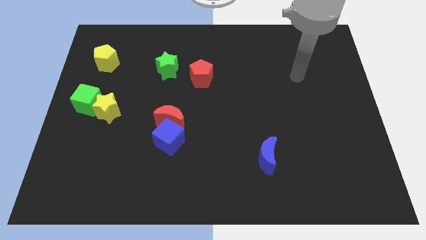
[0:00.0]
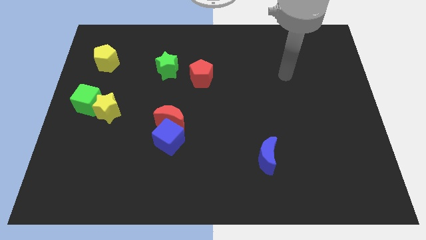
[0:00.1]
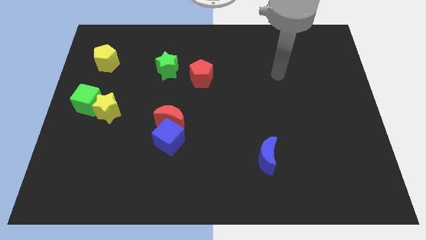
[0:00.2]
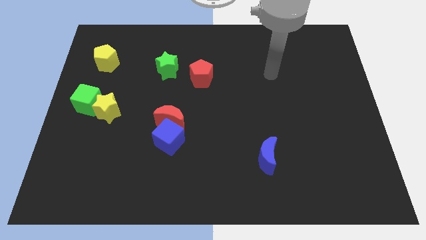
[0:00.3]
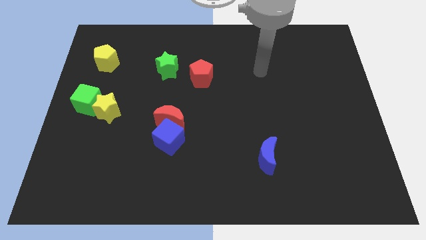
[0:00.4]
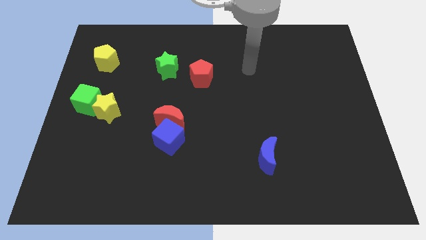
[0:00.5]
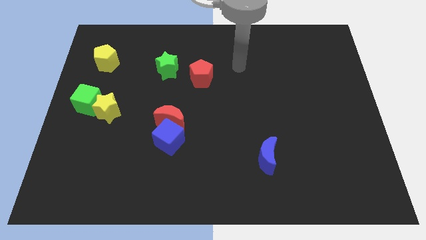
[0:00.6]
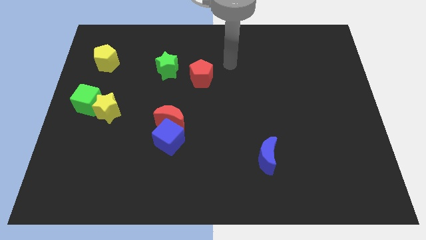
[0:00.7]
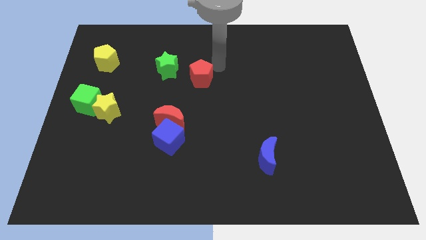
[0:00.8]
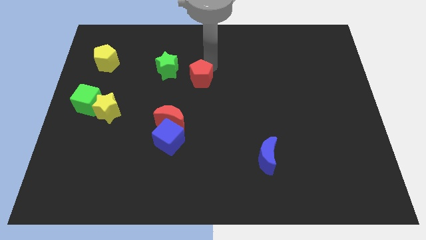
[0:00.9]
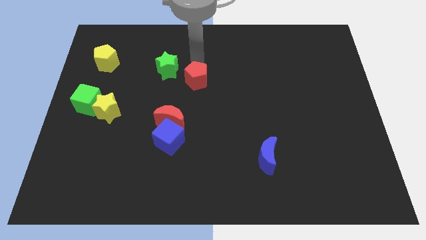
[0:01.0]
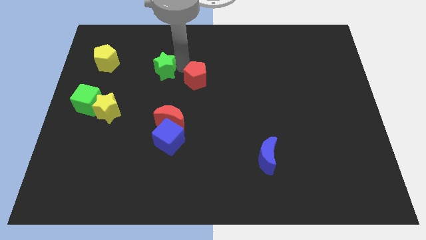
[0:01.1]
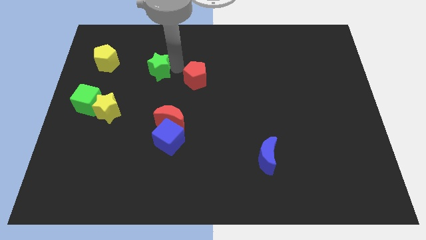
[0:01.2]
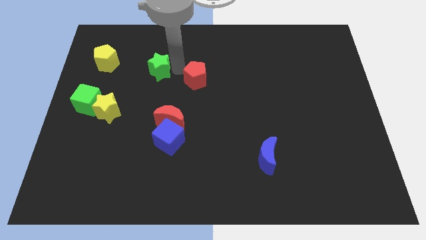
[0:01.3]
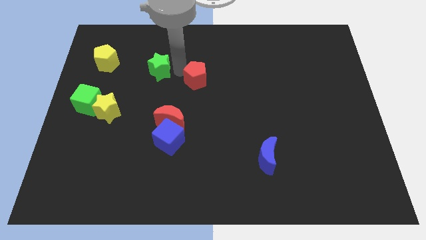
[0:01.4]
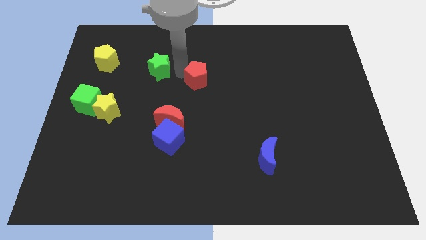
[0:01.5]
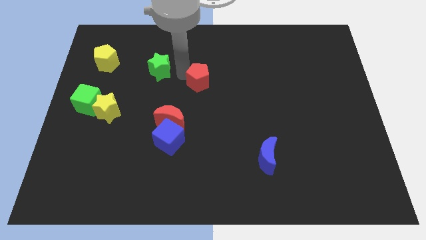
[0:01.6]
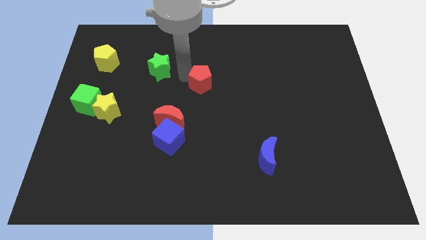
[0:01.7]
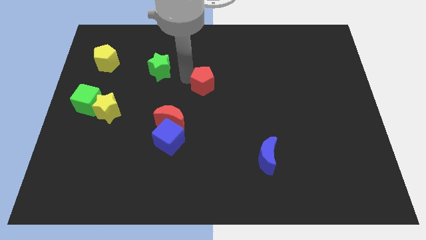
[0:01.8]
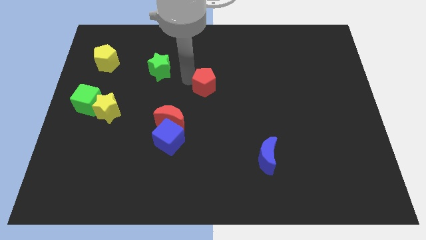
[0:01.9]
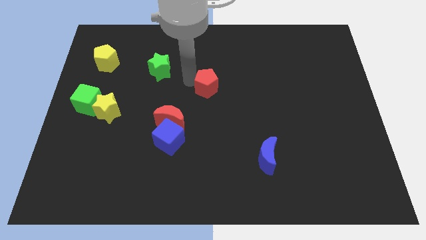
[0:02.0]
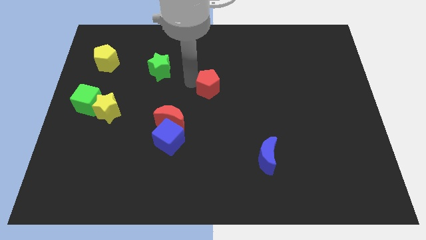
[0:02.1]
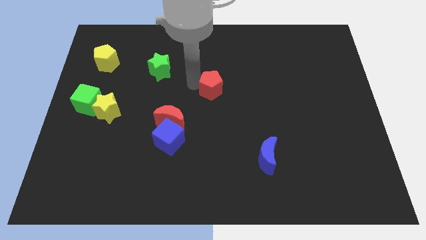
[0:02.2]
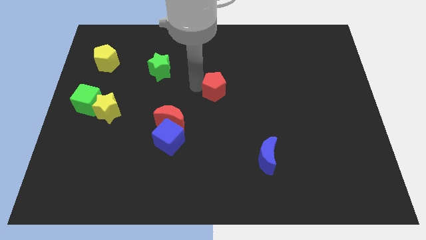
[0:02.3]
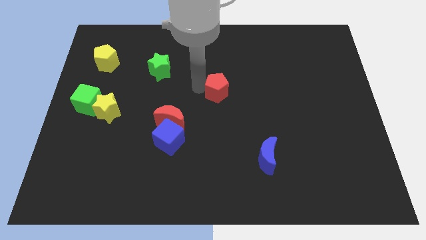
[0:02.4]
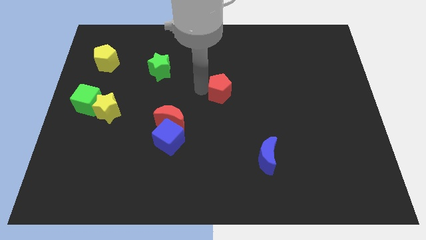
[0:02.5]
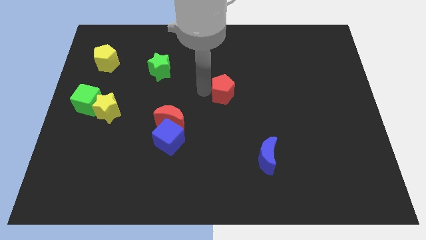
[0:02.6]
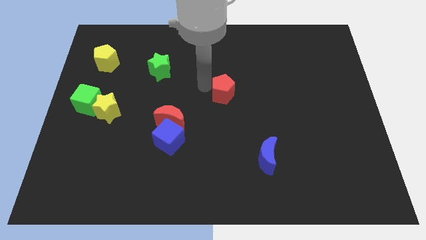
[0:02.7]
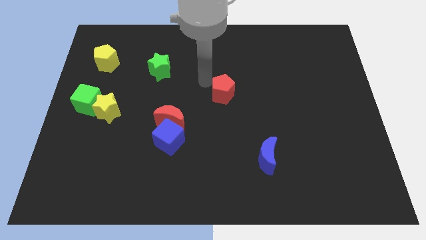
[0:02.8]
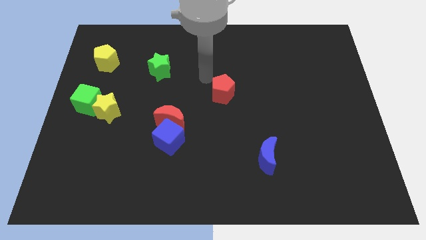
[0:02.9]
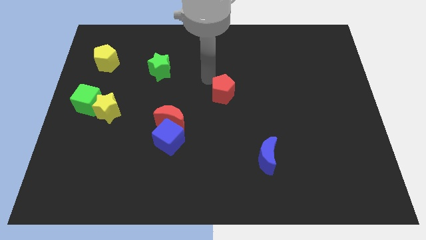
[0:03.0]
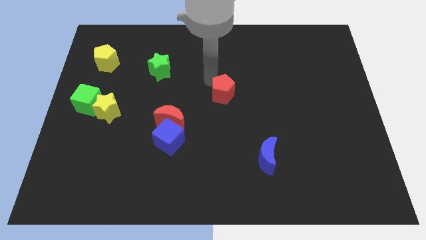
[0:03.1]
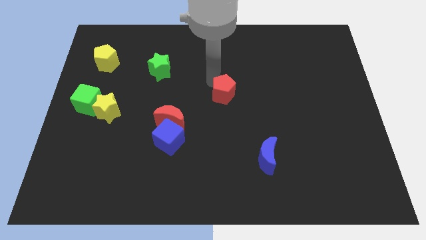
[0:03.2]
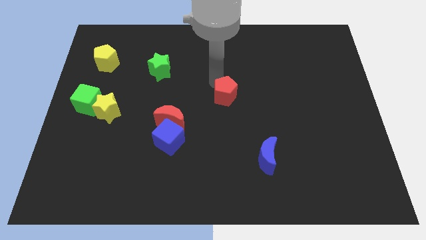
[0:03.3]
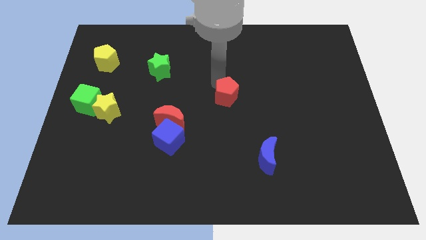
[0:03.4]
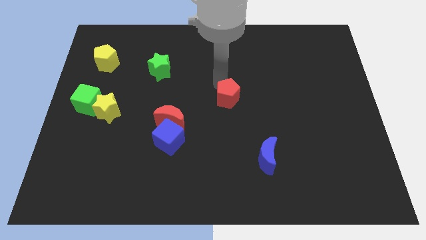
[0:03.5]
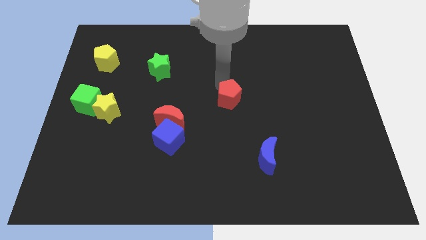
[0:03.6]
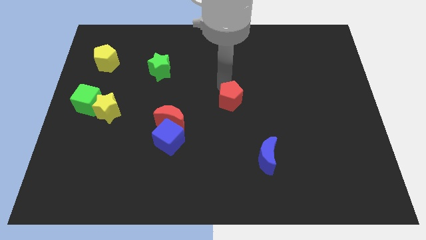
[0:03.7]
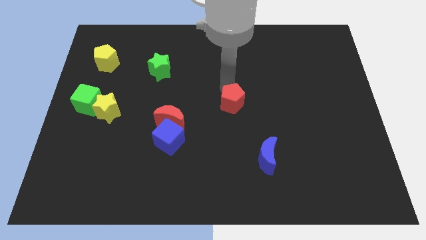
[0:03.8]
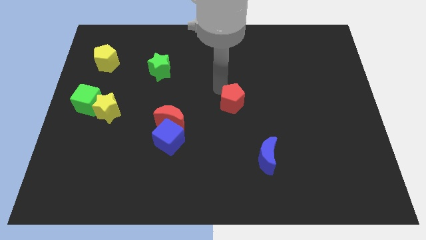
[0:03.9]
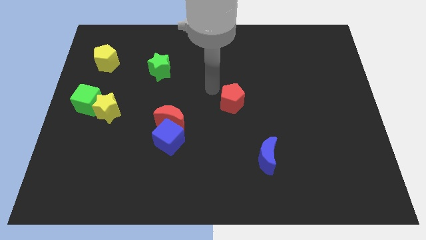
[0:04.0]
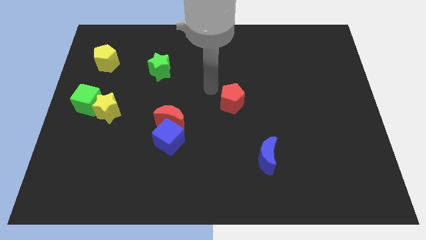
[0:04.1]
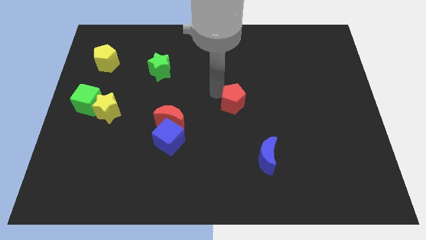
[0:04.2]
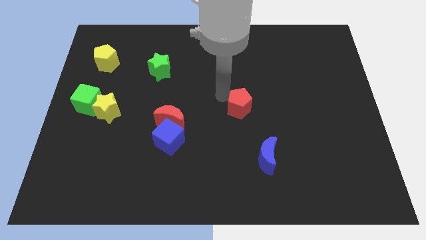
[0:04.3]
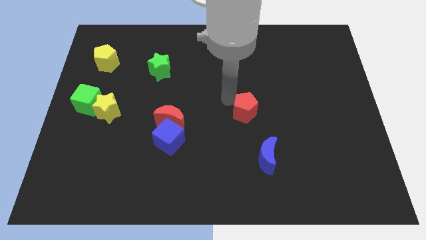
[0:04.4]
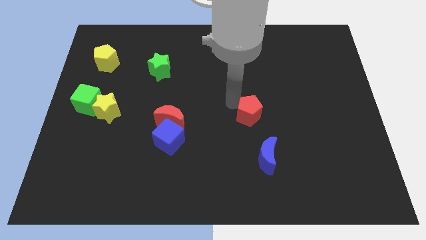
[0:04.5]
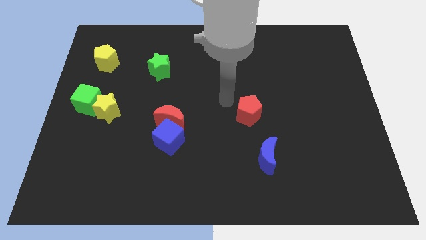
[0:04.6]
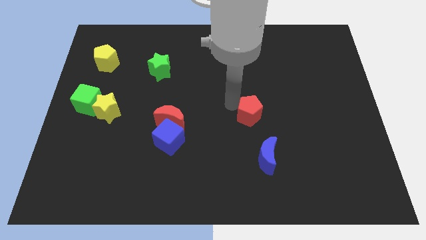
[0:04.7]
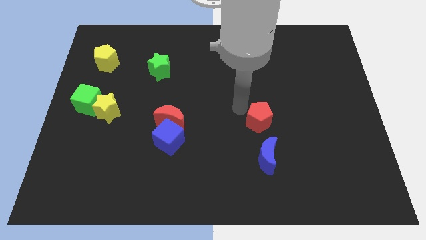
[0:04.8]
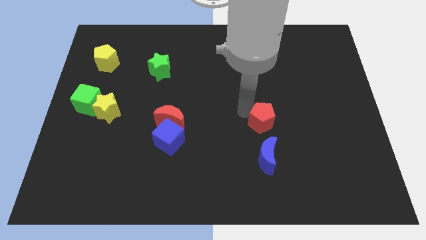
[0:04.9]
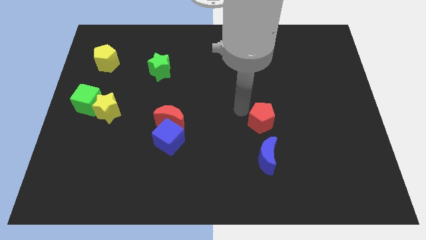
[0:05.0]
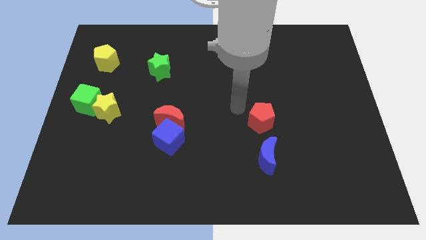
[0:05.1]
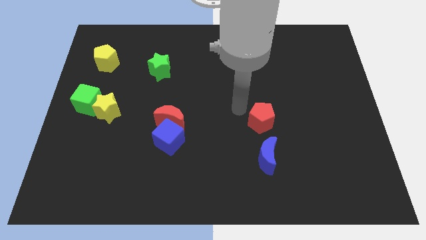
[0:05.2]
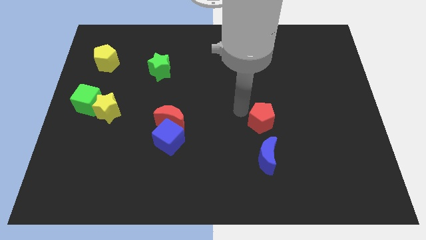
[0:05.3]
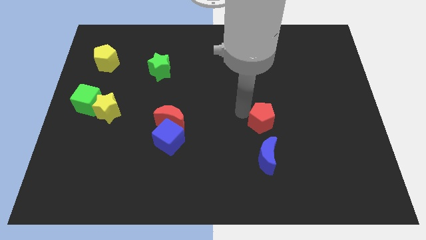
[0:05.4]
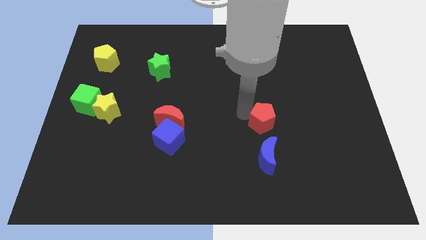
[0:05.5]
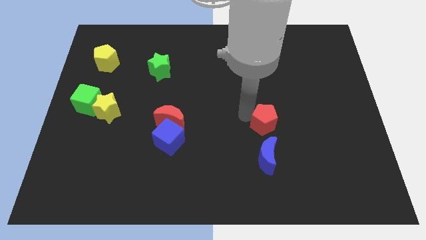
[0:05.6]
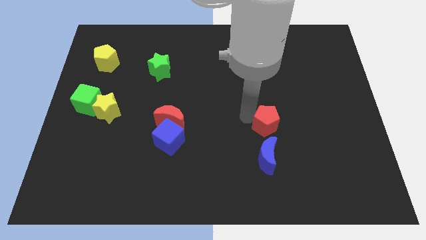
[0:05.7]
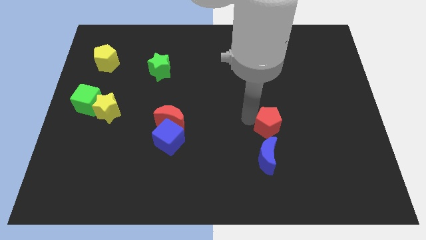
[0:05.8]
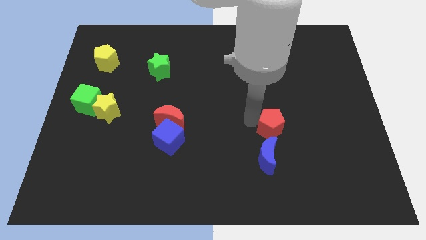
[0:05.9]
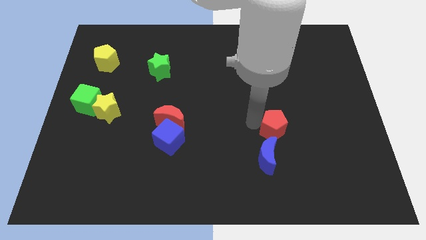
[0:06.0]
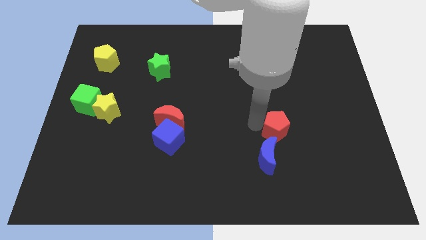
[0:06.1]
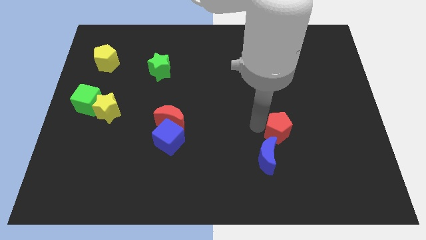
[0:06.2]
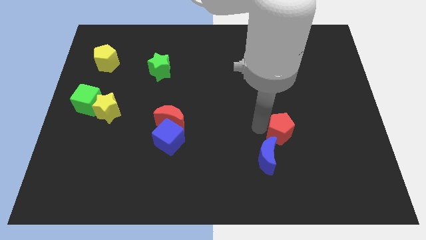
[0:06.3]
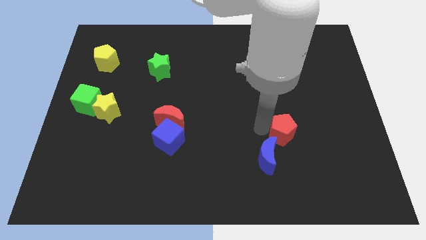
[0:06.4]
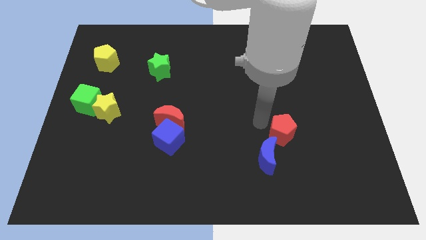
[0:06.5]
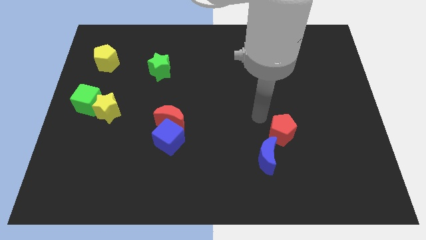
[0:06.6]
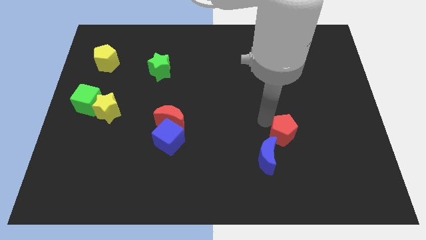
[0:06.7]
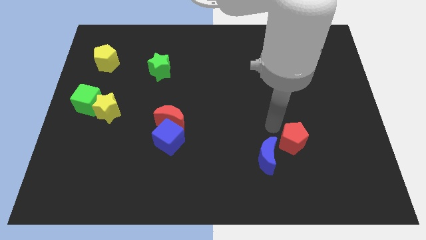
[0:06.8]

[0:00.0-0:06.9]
push the red pentagon just right of the blue moon

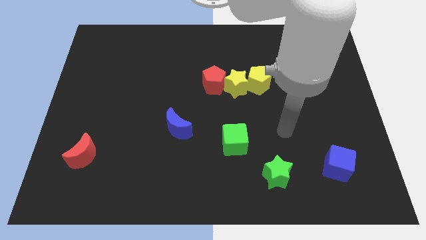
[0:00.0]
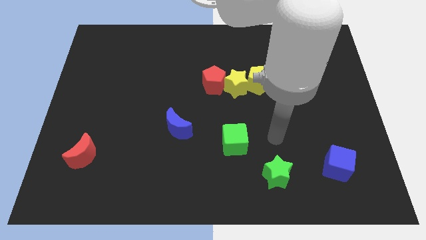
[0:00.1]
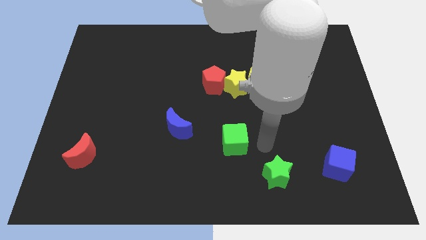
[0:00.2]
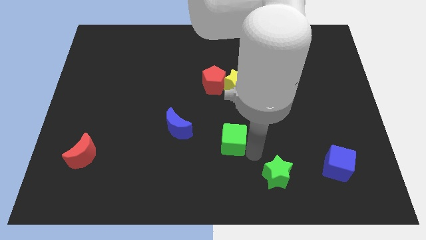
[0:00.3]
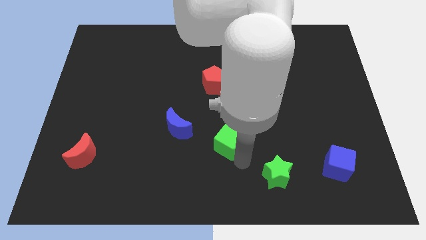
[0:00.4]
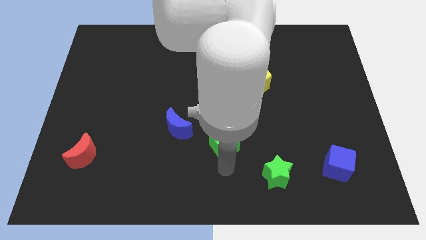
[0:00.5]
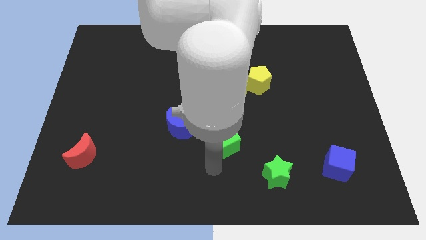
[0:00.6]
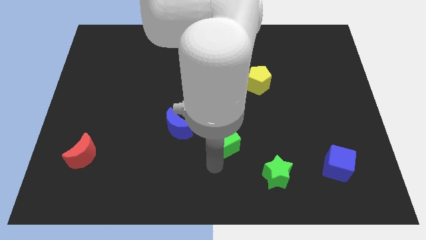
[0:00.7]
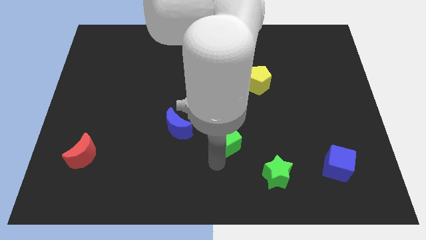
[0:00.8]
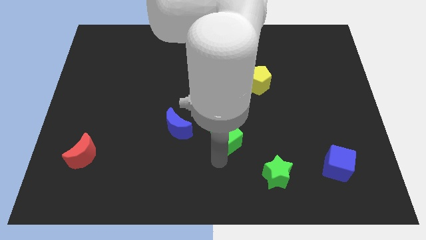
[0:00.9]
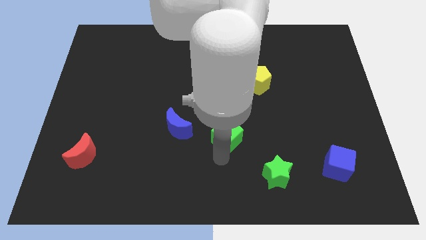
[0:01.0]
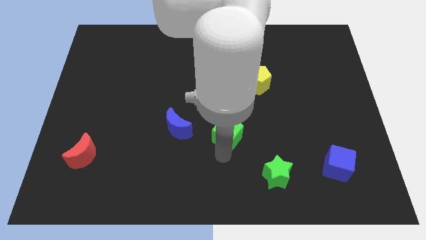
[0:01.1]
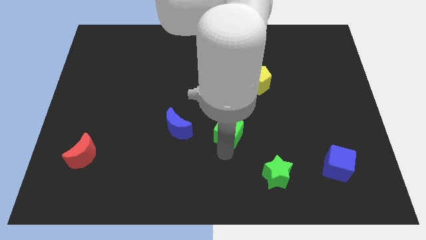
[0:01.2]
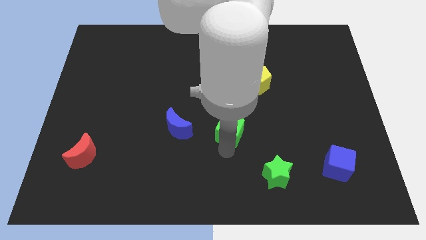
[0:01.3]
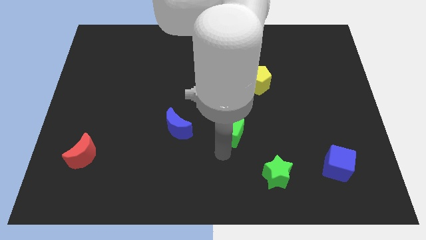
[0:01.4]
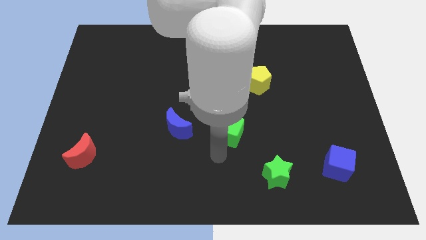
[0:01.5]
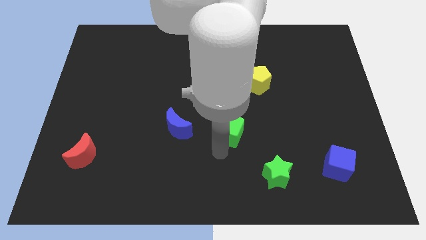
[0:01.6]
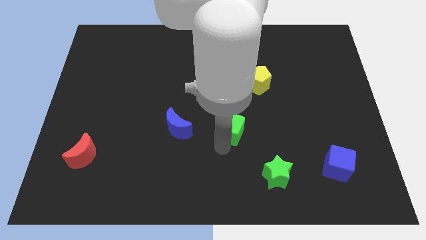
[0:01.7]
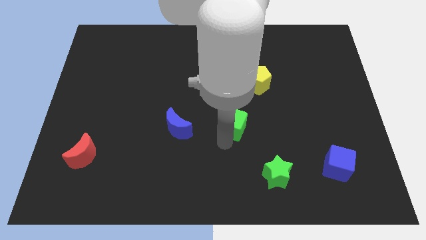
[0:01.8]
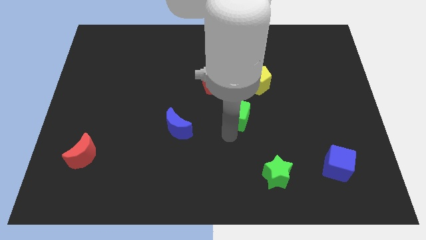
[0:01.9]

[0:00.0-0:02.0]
put the green cube diagonally down and to the left of the yellow pentagon
